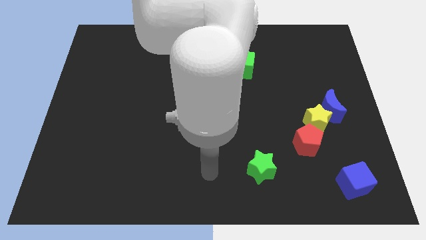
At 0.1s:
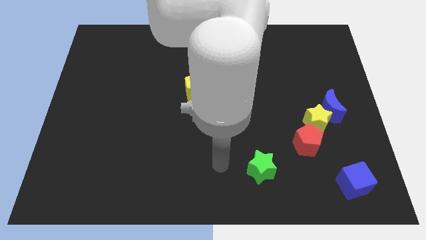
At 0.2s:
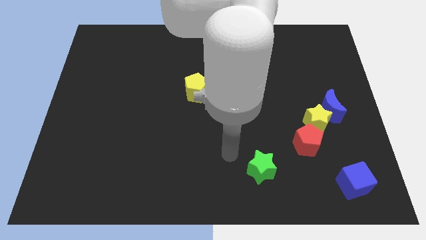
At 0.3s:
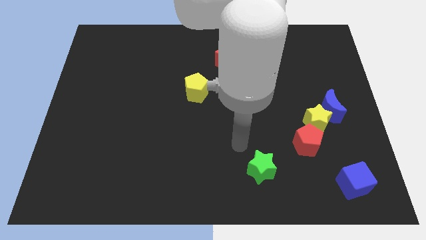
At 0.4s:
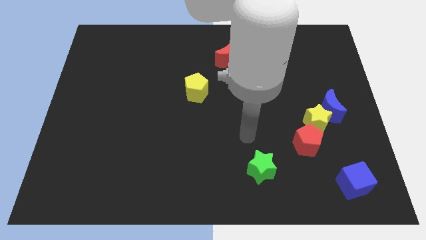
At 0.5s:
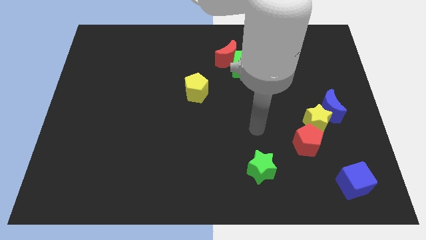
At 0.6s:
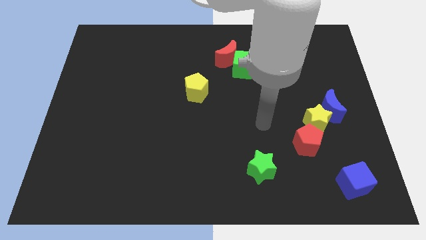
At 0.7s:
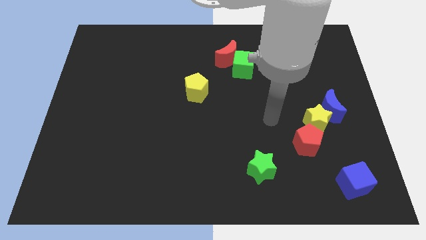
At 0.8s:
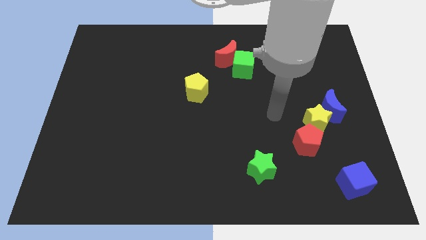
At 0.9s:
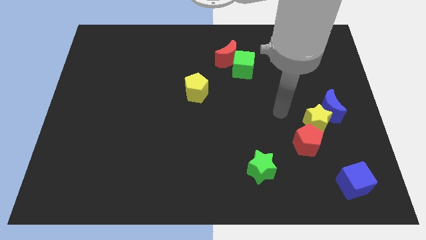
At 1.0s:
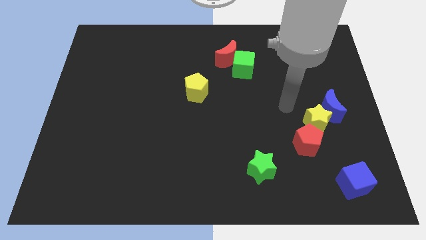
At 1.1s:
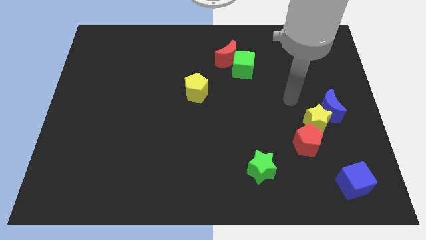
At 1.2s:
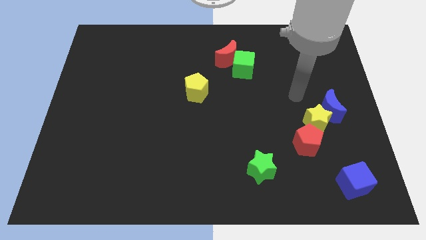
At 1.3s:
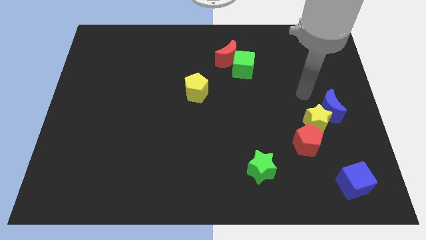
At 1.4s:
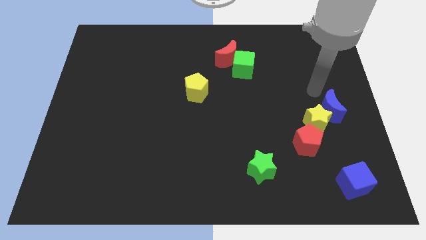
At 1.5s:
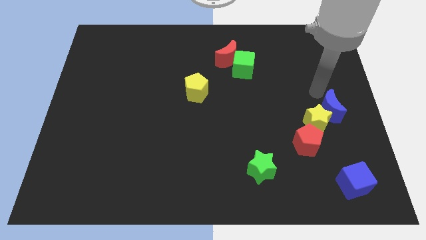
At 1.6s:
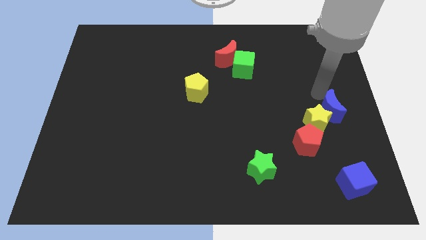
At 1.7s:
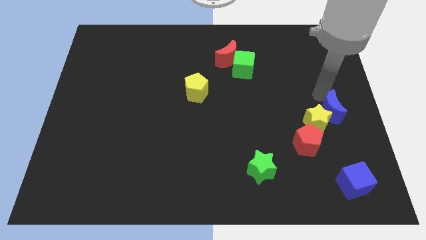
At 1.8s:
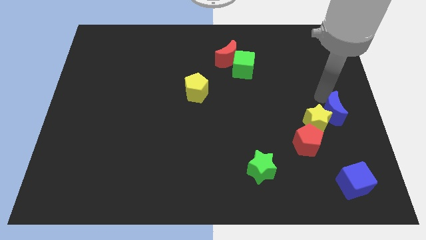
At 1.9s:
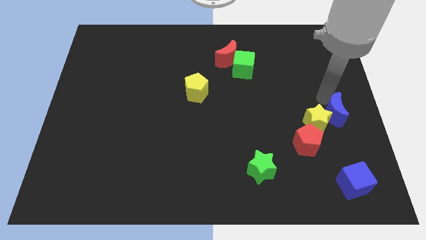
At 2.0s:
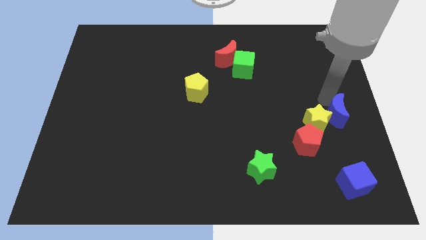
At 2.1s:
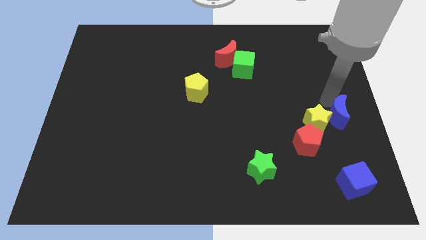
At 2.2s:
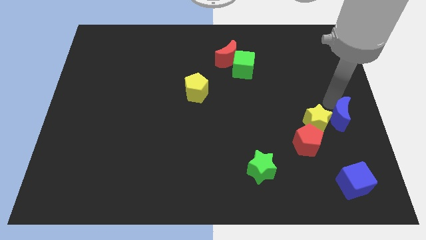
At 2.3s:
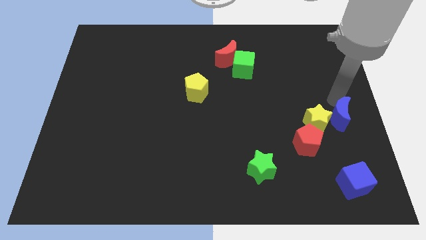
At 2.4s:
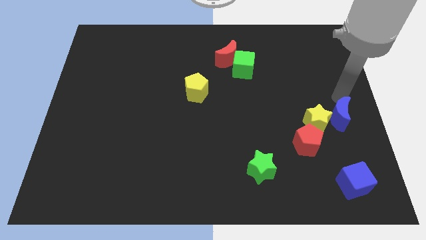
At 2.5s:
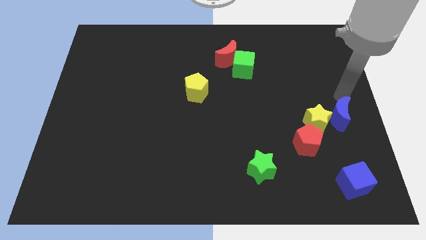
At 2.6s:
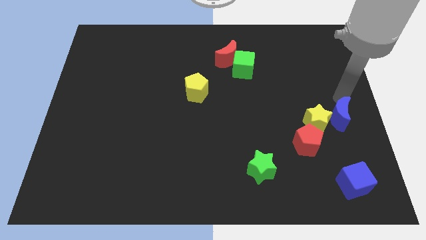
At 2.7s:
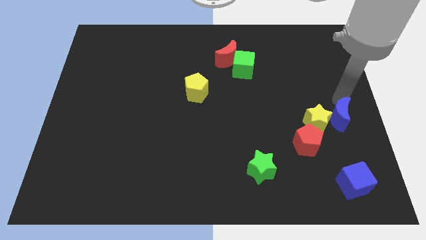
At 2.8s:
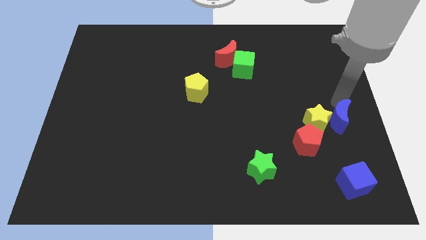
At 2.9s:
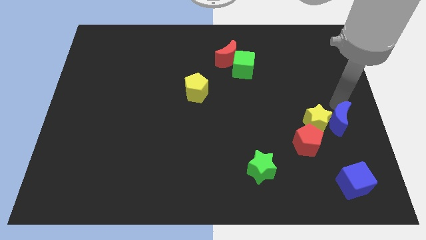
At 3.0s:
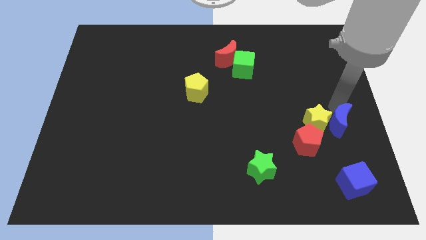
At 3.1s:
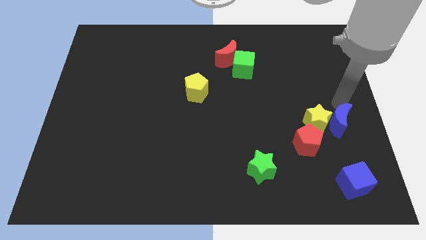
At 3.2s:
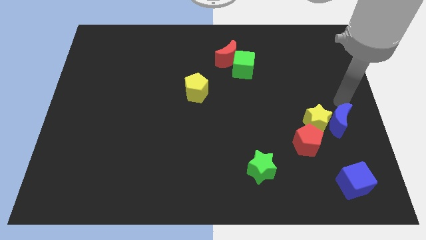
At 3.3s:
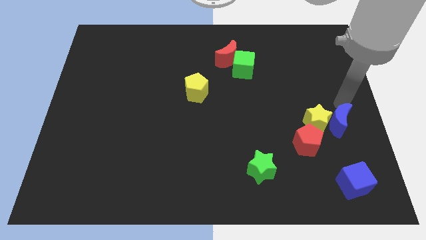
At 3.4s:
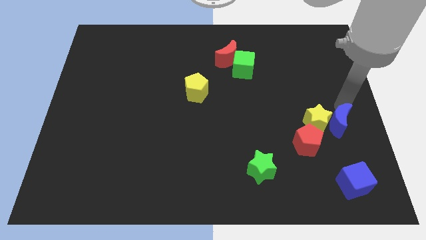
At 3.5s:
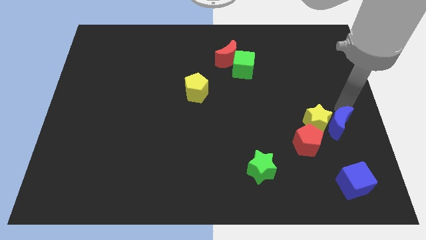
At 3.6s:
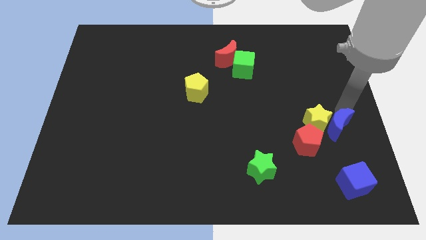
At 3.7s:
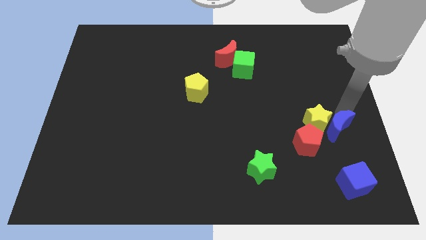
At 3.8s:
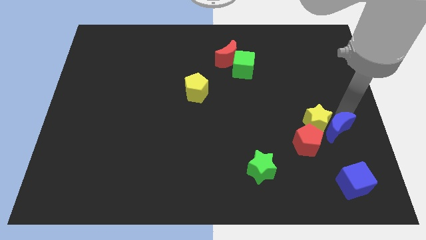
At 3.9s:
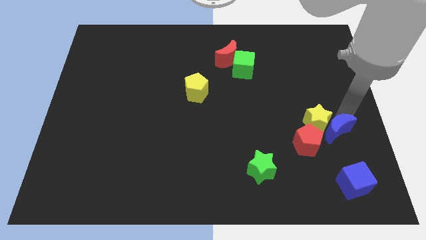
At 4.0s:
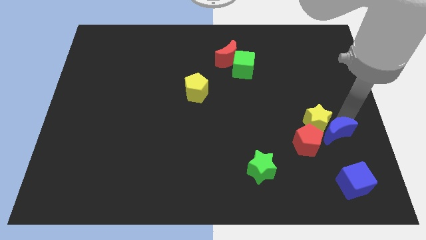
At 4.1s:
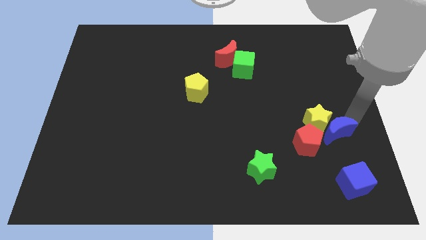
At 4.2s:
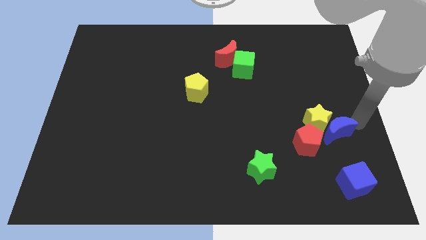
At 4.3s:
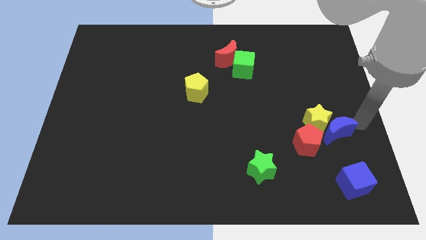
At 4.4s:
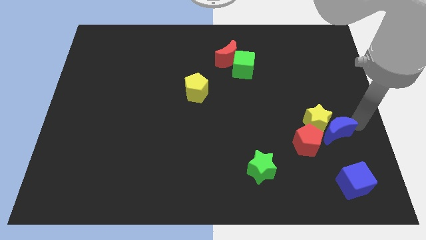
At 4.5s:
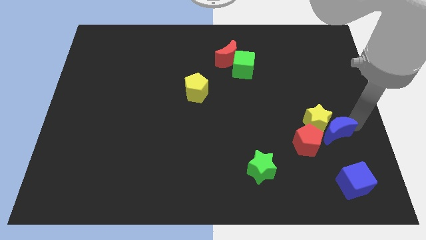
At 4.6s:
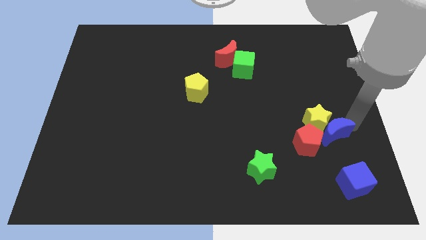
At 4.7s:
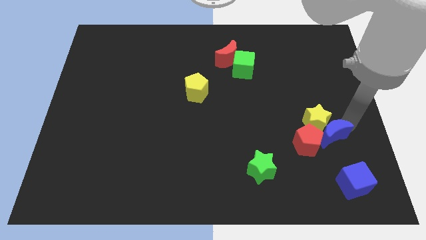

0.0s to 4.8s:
put the blue moon to the red pentagon

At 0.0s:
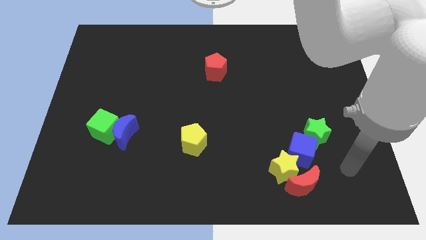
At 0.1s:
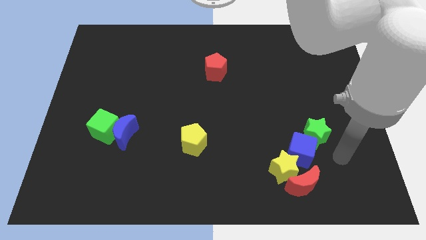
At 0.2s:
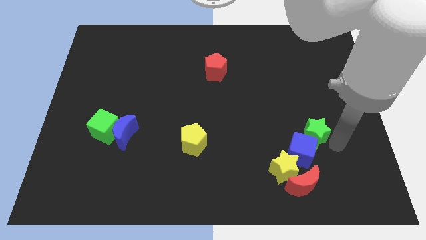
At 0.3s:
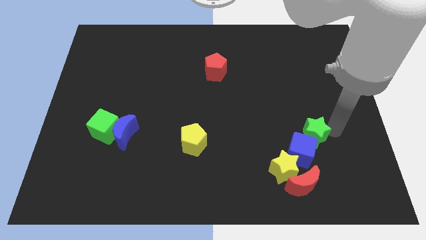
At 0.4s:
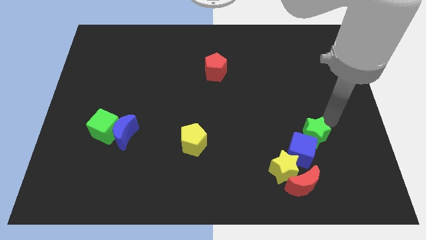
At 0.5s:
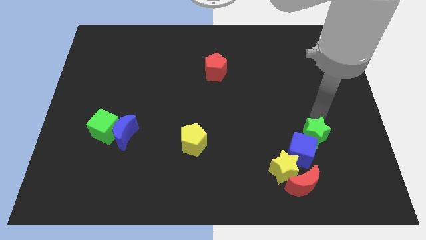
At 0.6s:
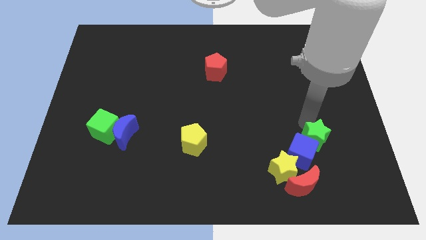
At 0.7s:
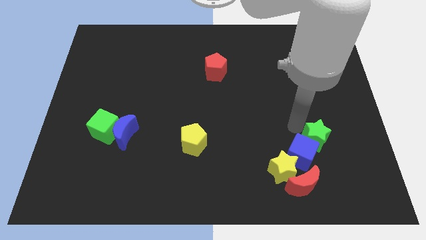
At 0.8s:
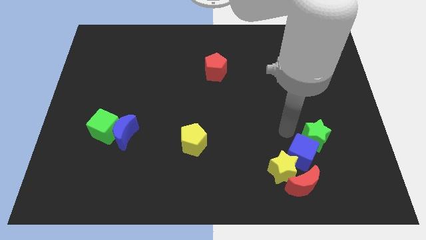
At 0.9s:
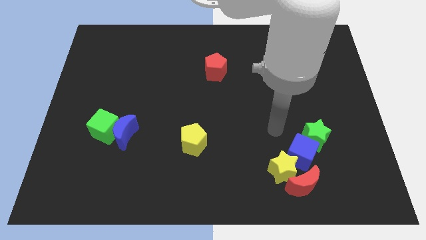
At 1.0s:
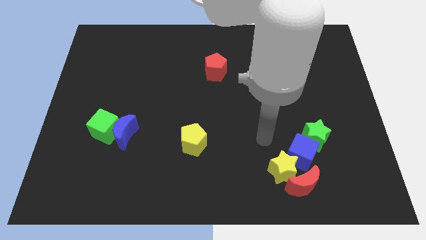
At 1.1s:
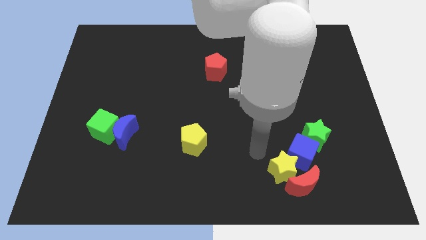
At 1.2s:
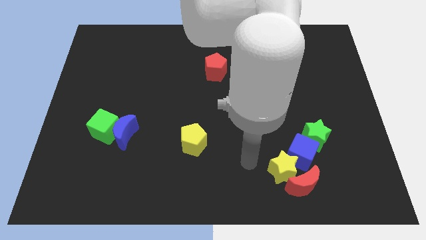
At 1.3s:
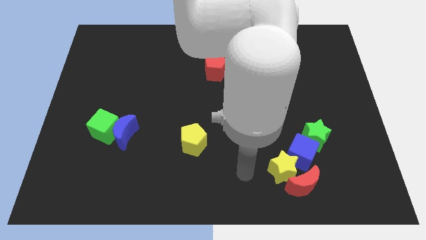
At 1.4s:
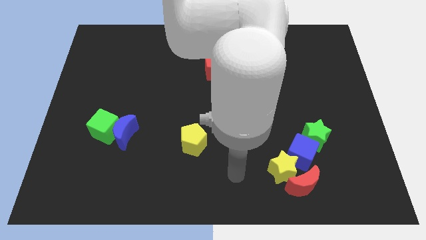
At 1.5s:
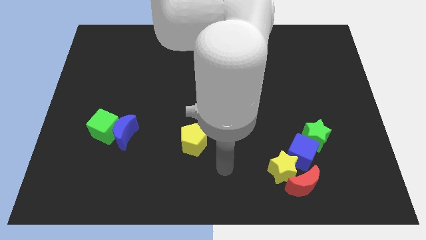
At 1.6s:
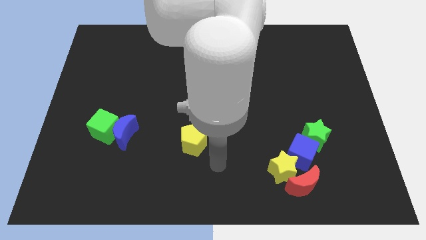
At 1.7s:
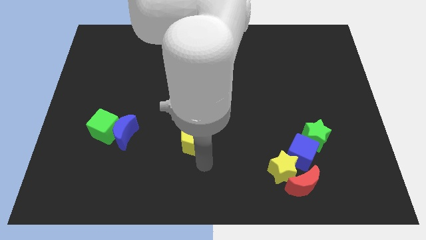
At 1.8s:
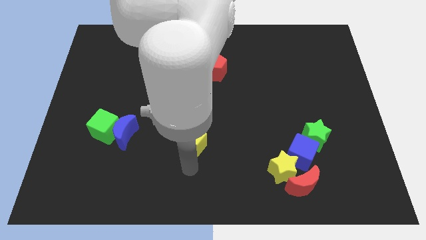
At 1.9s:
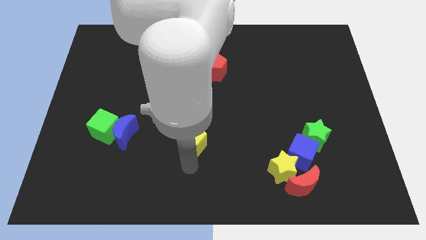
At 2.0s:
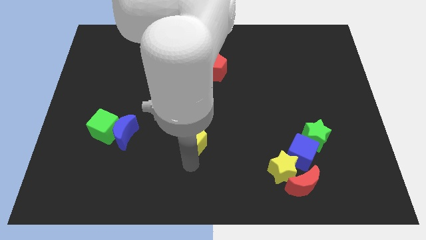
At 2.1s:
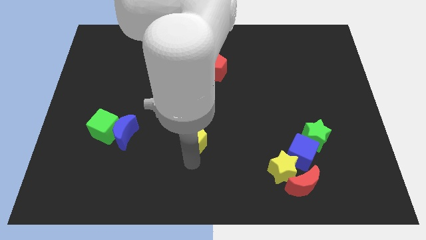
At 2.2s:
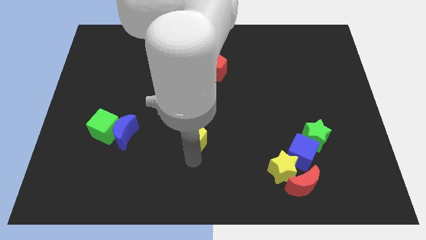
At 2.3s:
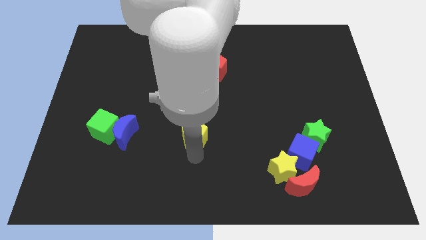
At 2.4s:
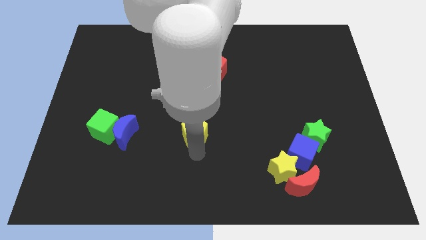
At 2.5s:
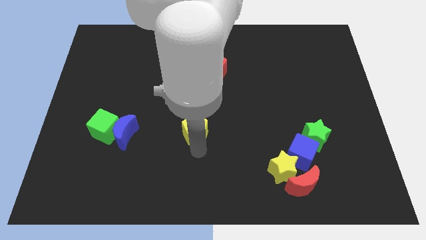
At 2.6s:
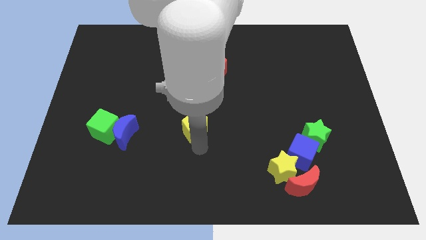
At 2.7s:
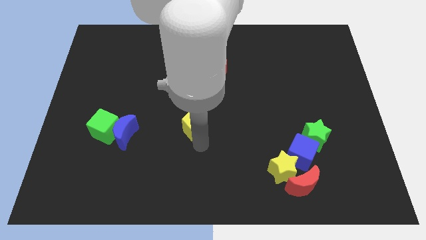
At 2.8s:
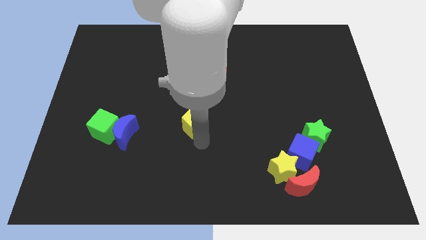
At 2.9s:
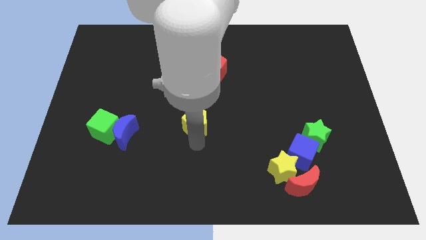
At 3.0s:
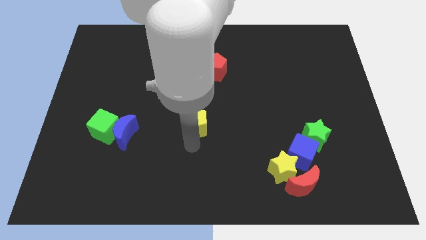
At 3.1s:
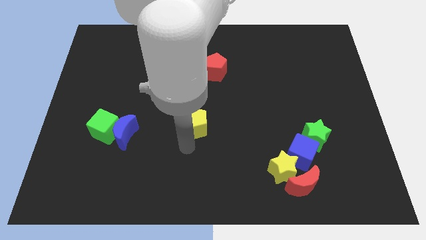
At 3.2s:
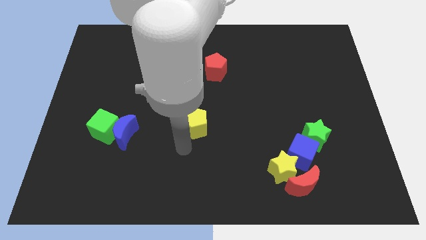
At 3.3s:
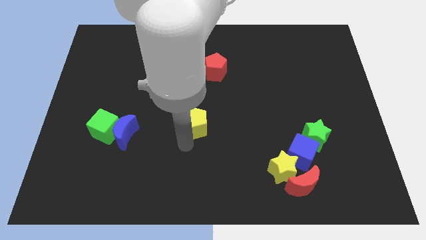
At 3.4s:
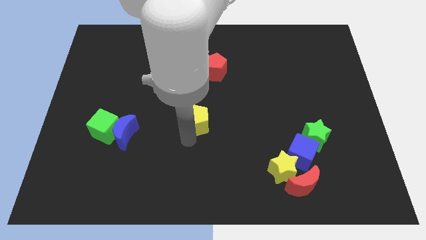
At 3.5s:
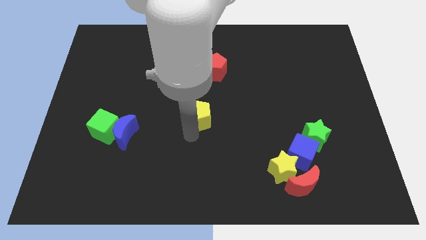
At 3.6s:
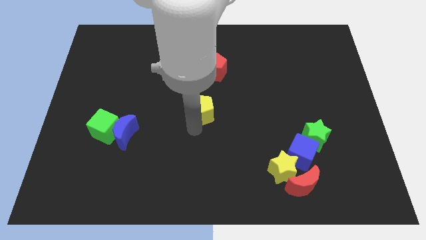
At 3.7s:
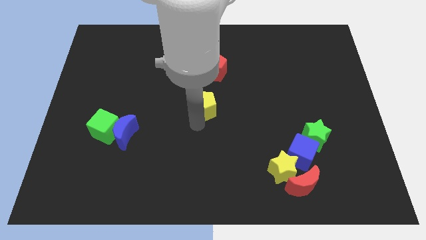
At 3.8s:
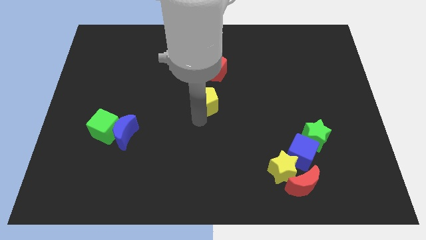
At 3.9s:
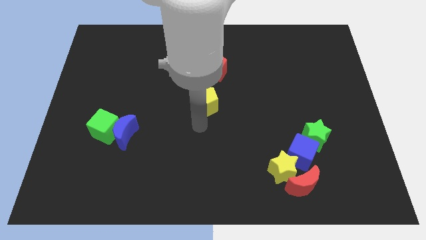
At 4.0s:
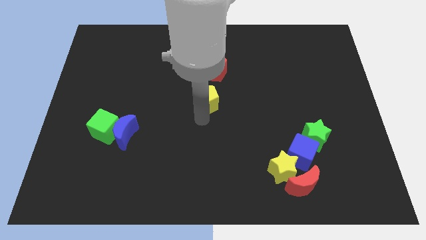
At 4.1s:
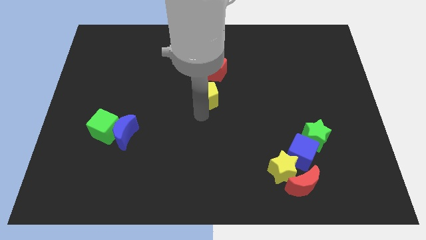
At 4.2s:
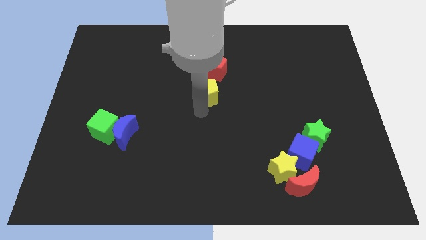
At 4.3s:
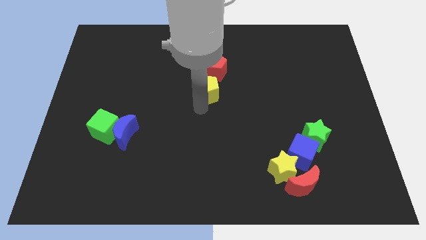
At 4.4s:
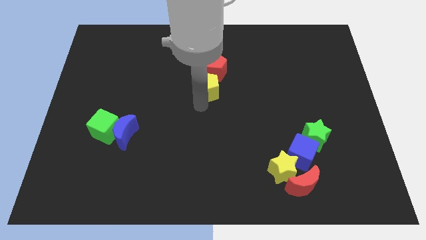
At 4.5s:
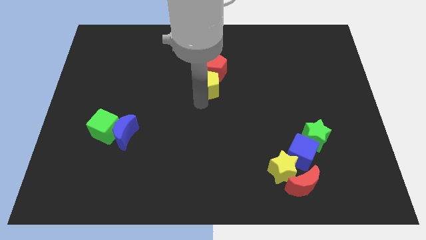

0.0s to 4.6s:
move the yellow pentagon to the red pentagon
